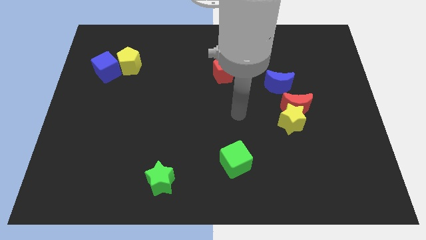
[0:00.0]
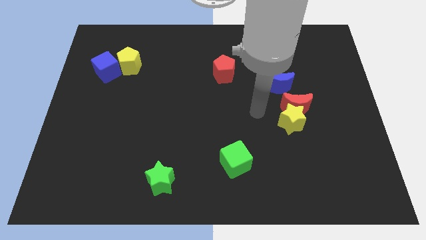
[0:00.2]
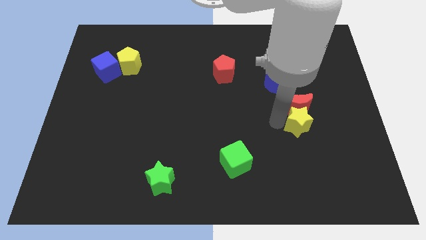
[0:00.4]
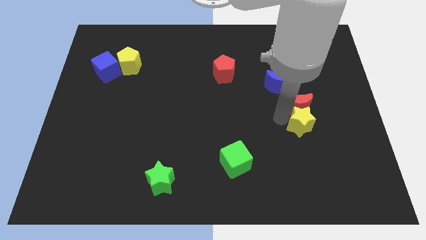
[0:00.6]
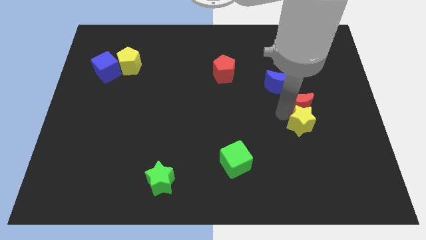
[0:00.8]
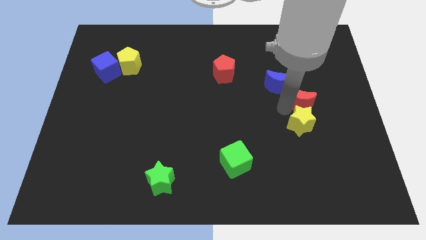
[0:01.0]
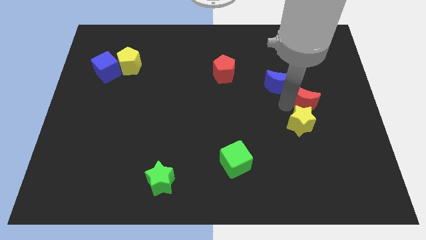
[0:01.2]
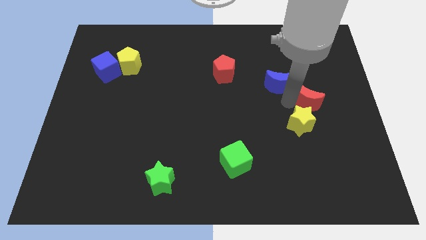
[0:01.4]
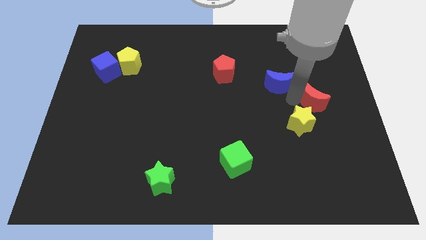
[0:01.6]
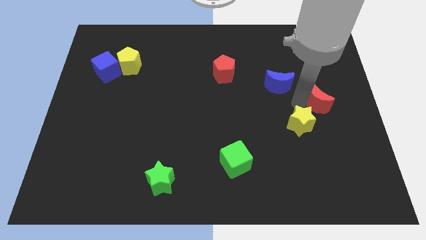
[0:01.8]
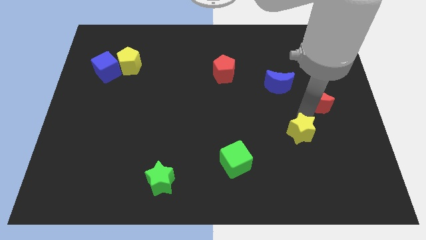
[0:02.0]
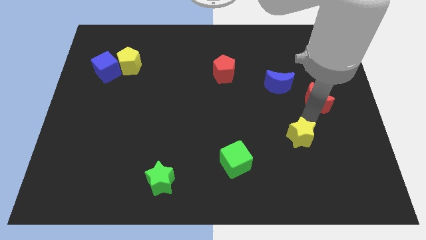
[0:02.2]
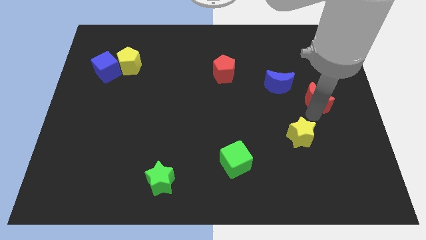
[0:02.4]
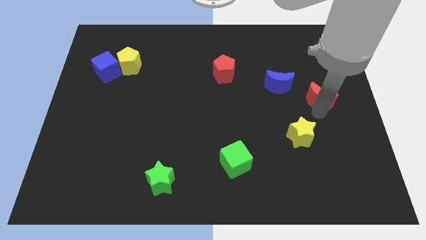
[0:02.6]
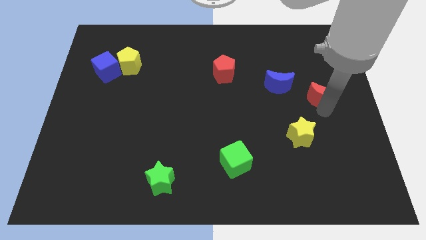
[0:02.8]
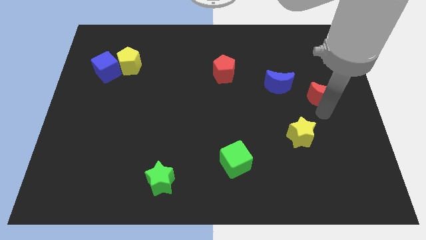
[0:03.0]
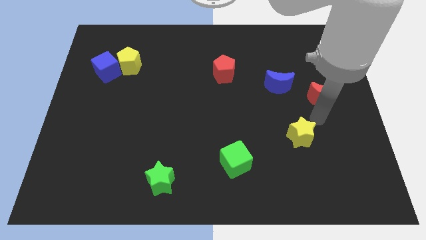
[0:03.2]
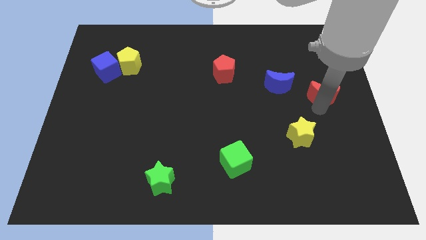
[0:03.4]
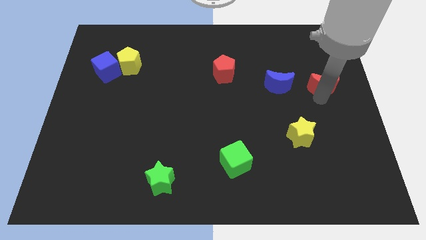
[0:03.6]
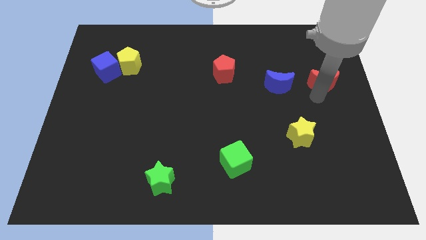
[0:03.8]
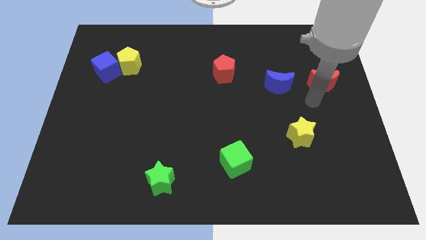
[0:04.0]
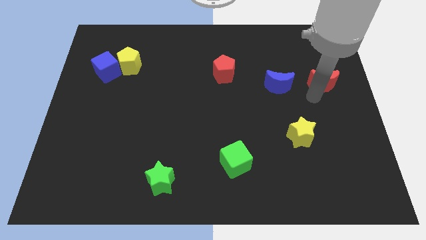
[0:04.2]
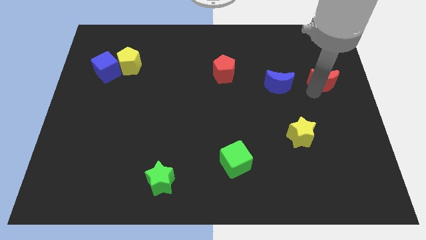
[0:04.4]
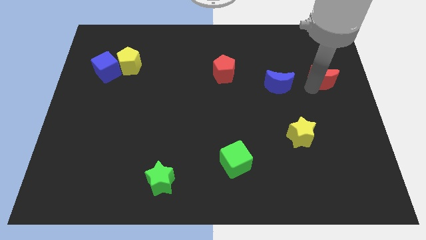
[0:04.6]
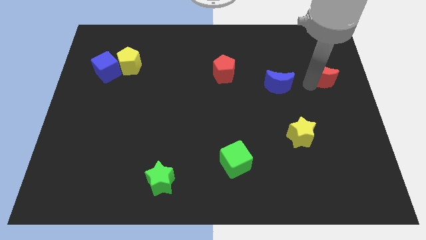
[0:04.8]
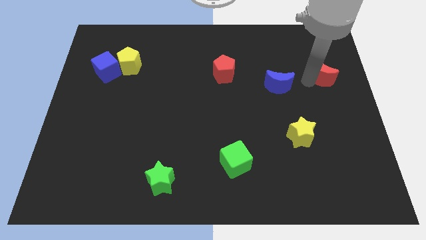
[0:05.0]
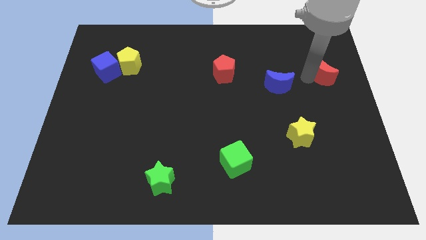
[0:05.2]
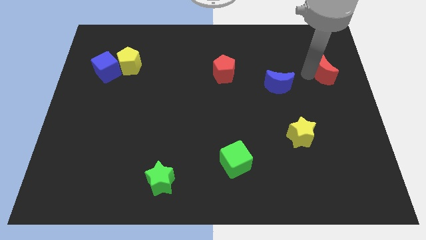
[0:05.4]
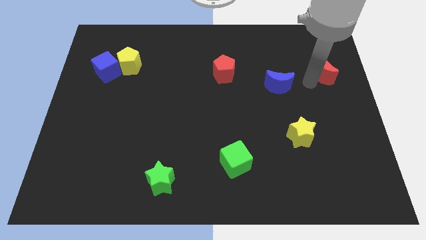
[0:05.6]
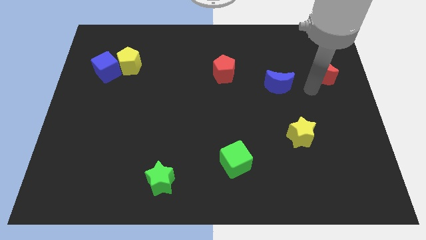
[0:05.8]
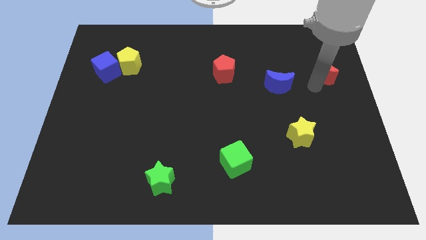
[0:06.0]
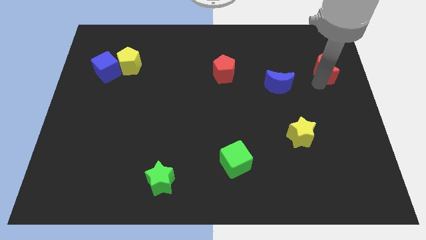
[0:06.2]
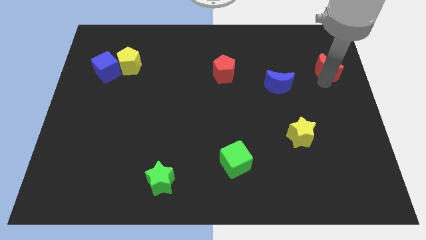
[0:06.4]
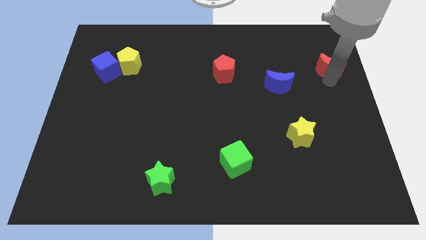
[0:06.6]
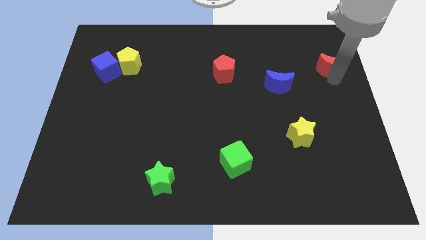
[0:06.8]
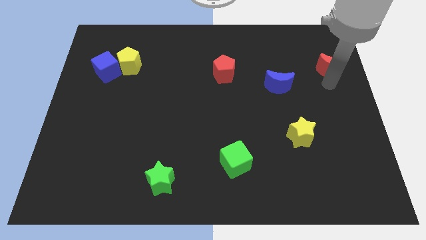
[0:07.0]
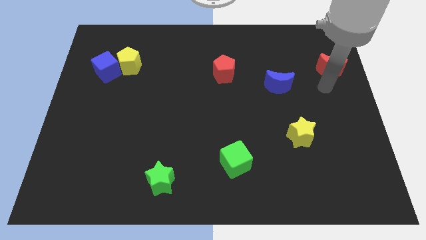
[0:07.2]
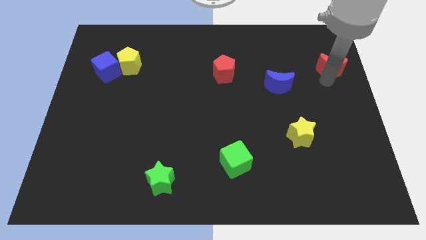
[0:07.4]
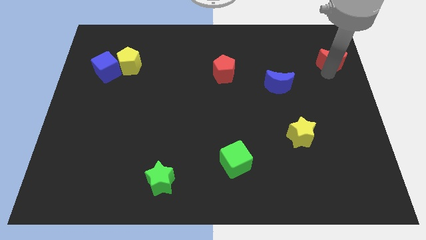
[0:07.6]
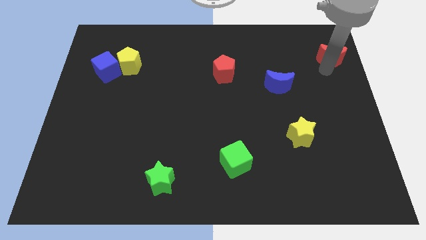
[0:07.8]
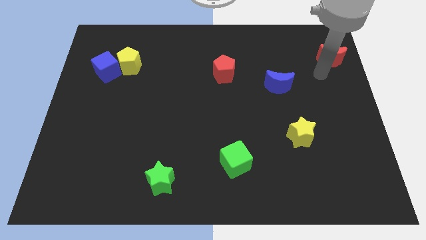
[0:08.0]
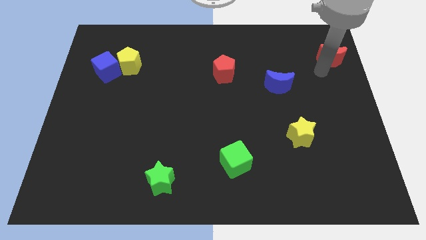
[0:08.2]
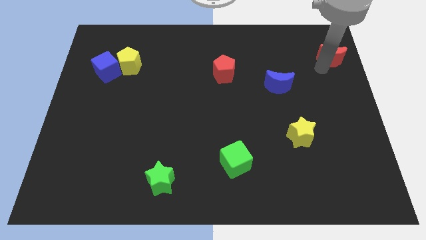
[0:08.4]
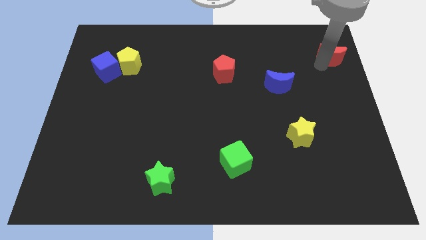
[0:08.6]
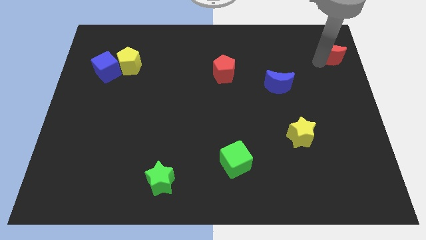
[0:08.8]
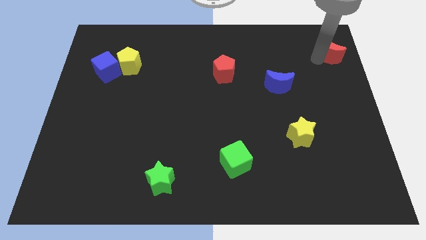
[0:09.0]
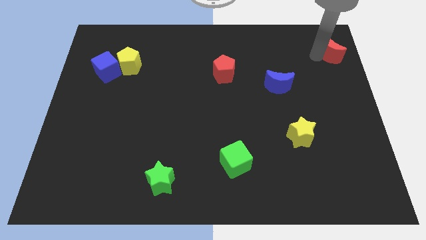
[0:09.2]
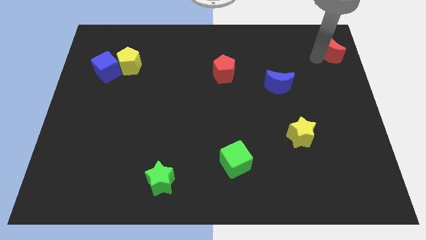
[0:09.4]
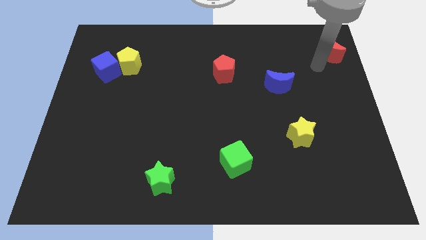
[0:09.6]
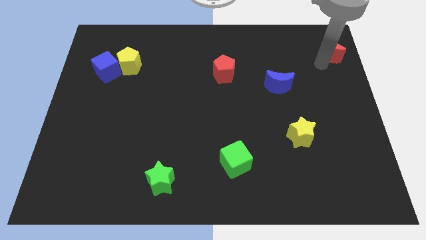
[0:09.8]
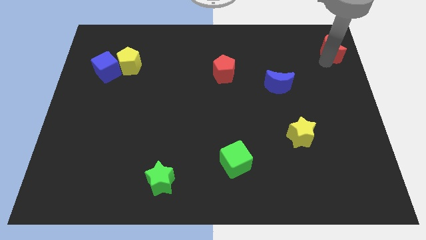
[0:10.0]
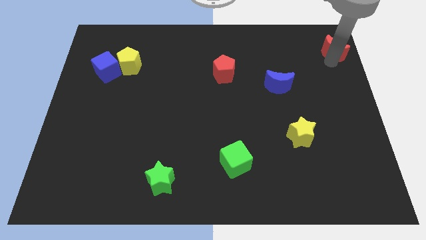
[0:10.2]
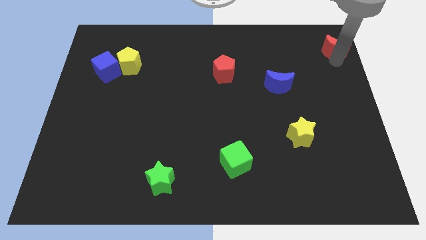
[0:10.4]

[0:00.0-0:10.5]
push the red moon to the upper right corner

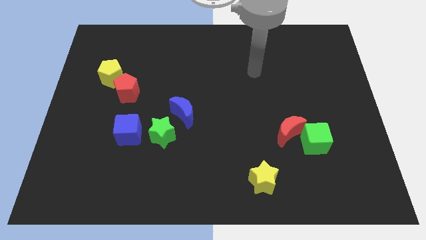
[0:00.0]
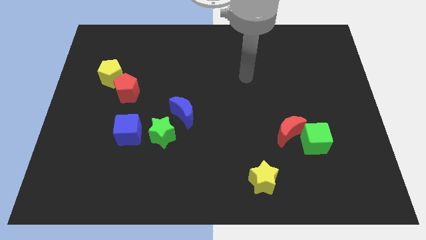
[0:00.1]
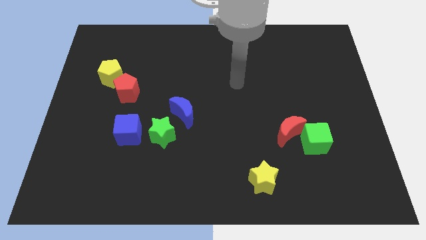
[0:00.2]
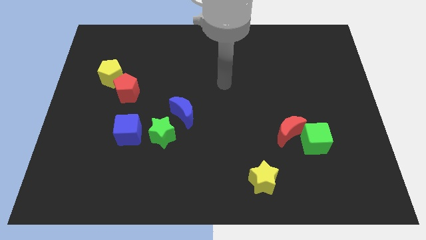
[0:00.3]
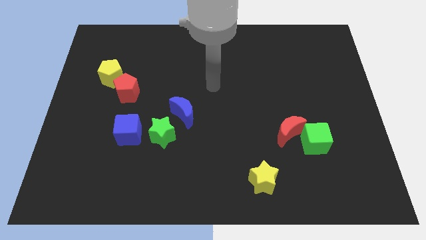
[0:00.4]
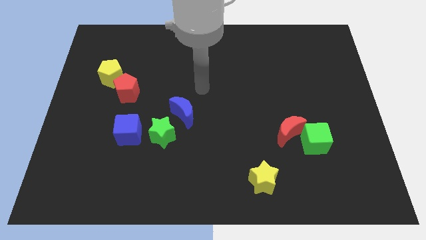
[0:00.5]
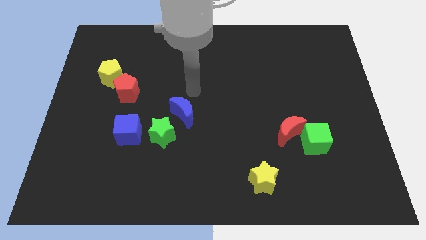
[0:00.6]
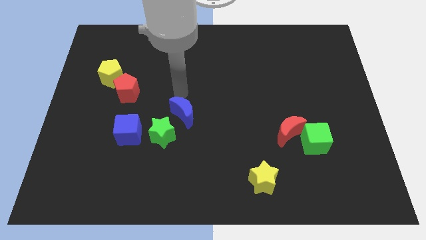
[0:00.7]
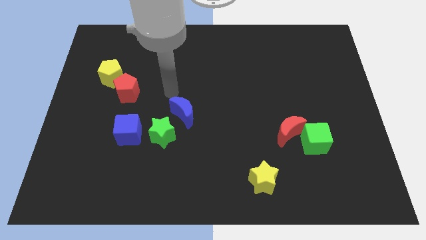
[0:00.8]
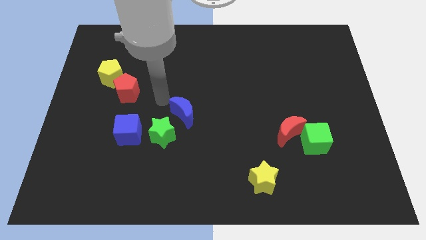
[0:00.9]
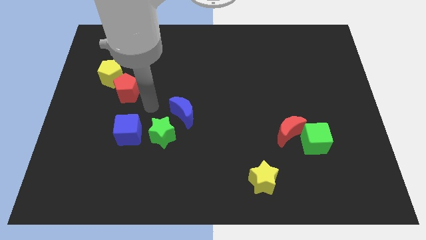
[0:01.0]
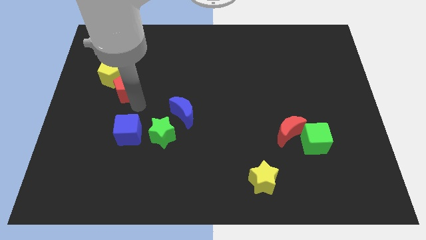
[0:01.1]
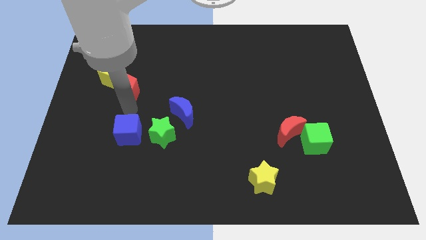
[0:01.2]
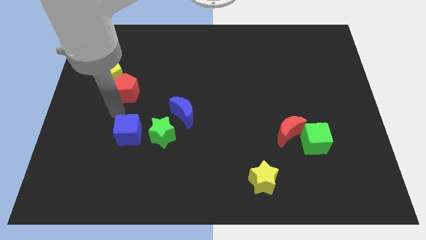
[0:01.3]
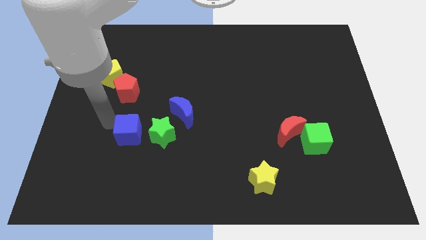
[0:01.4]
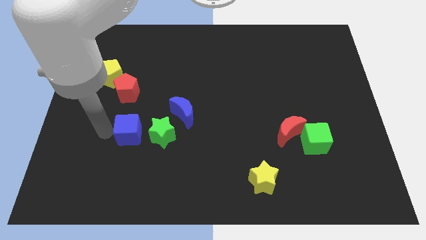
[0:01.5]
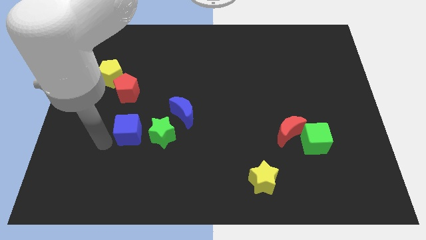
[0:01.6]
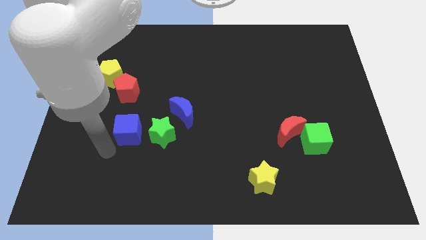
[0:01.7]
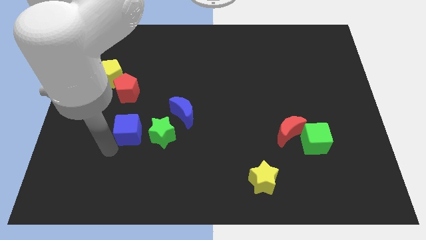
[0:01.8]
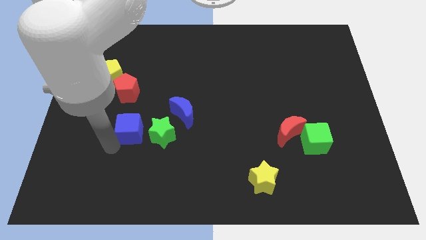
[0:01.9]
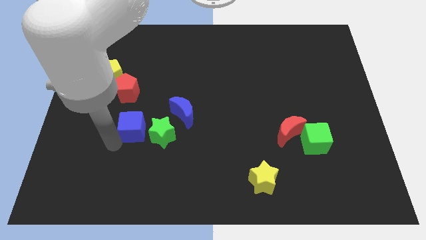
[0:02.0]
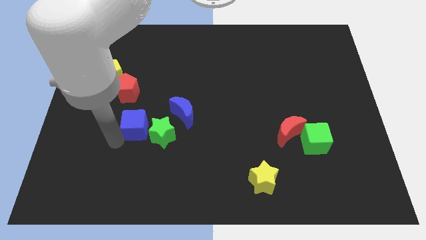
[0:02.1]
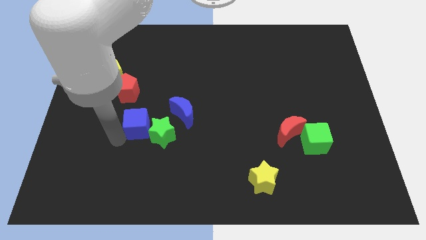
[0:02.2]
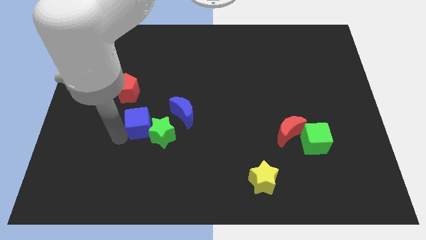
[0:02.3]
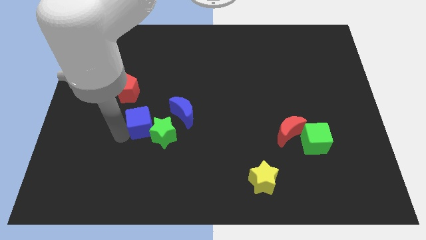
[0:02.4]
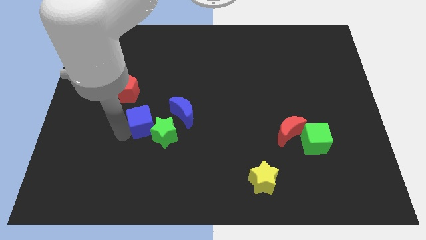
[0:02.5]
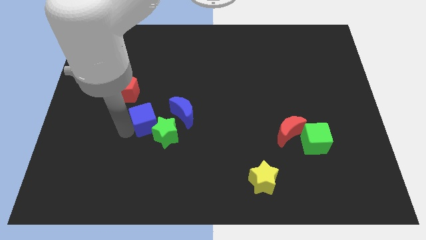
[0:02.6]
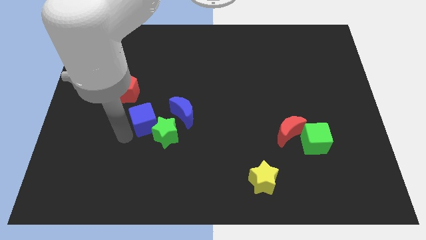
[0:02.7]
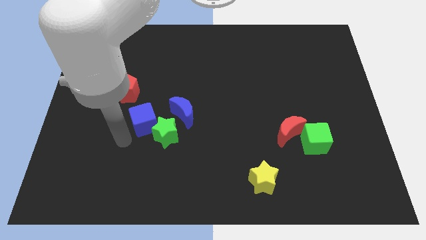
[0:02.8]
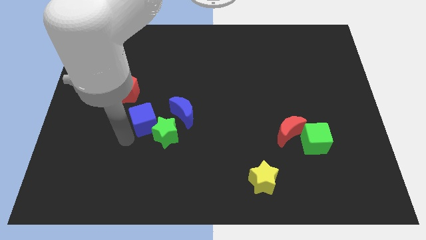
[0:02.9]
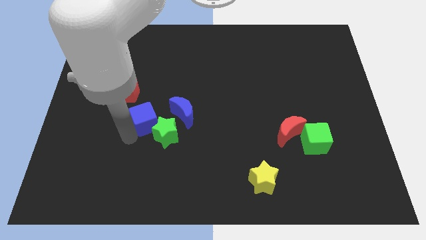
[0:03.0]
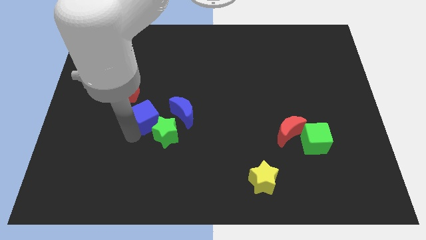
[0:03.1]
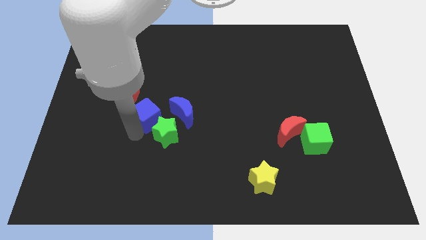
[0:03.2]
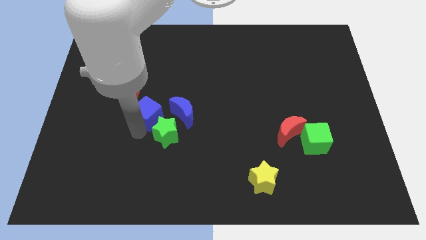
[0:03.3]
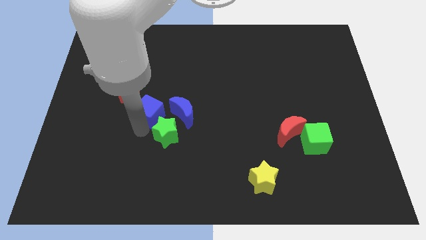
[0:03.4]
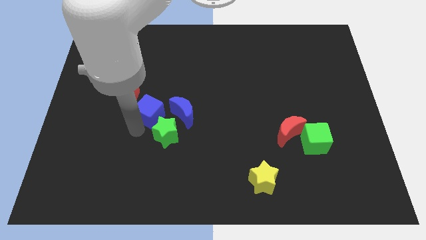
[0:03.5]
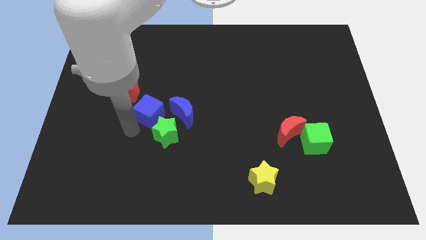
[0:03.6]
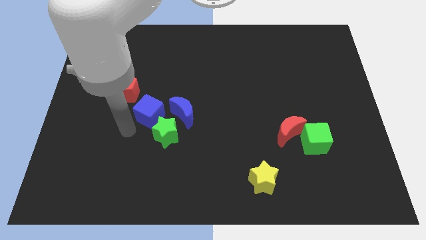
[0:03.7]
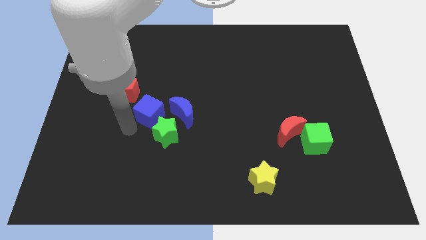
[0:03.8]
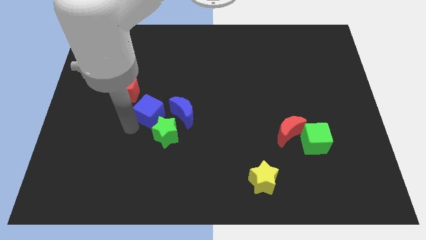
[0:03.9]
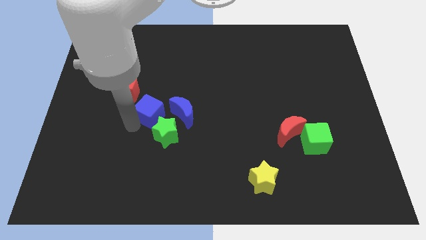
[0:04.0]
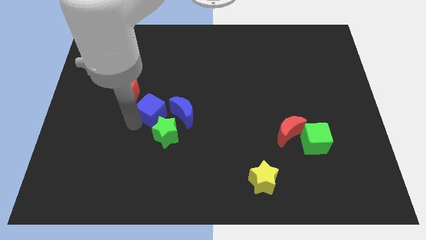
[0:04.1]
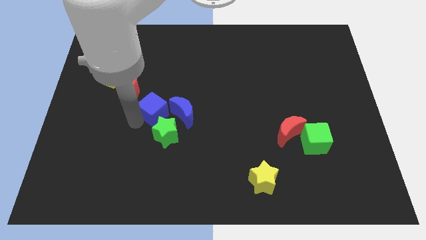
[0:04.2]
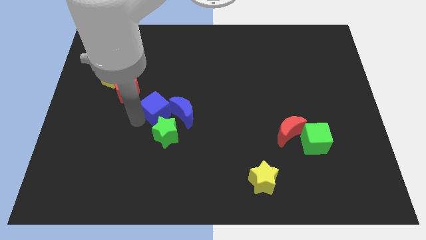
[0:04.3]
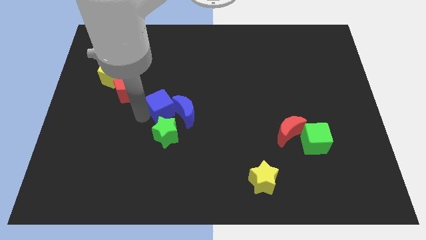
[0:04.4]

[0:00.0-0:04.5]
put the blue cube to the center of the board
